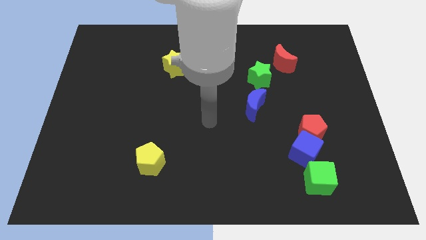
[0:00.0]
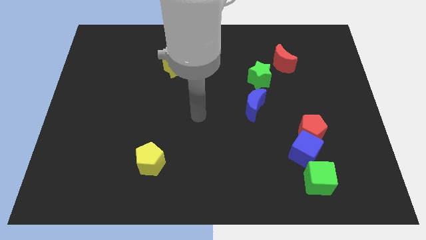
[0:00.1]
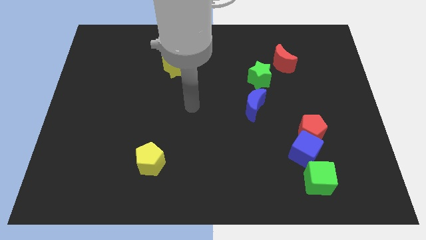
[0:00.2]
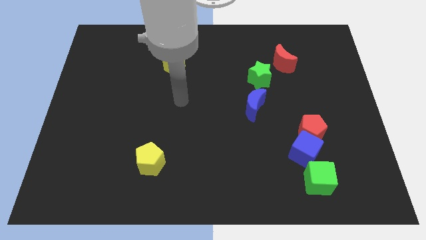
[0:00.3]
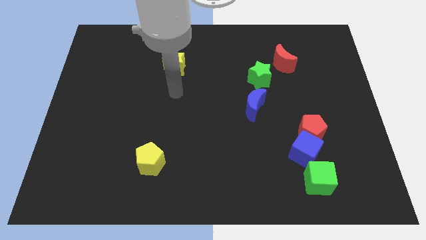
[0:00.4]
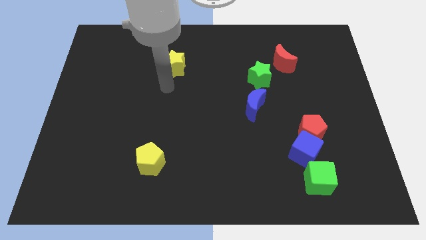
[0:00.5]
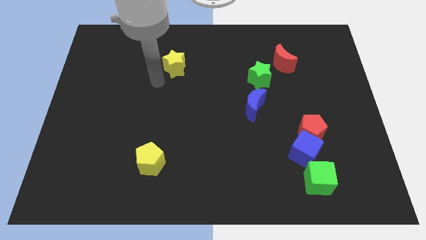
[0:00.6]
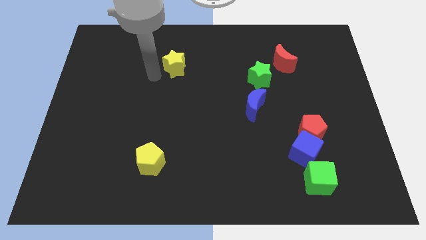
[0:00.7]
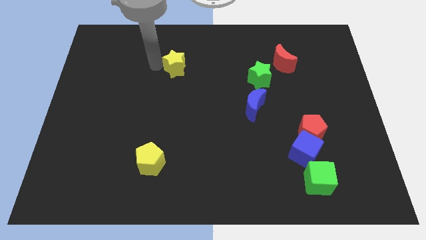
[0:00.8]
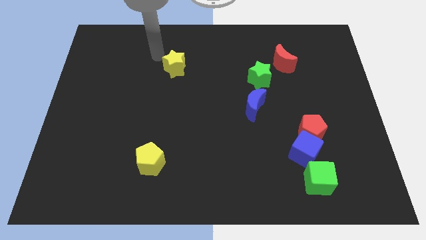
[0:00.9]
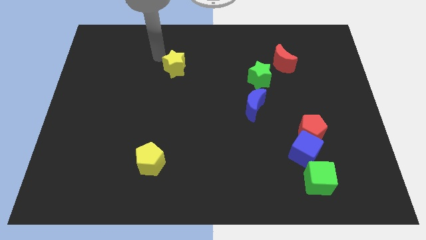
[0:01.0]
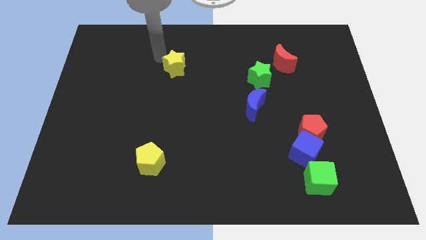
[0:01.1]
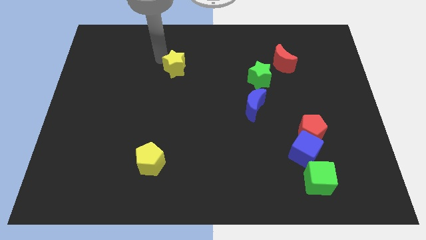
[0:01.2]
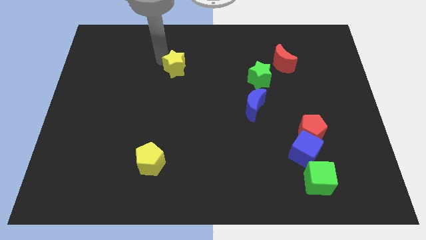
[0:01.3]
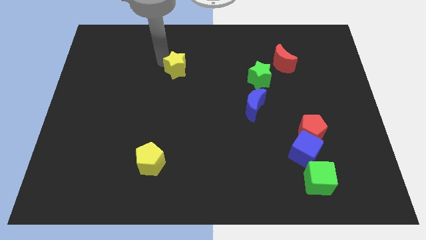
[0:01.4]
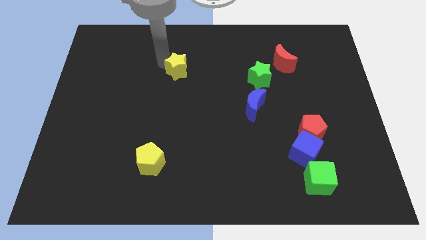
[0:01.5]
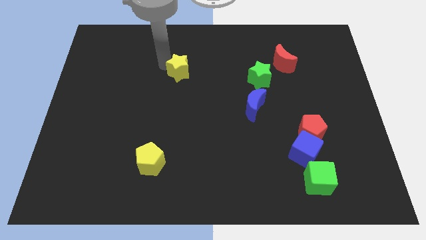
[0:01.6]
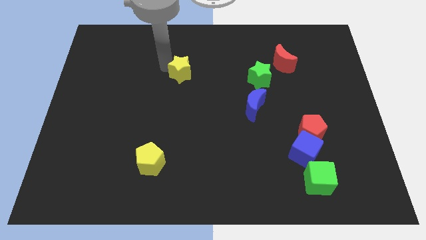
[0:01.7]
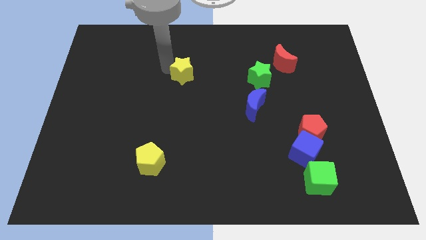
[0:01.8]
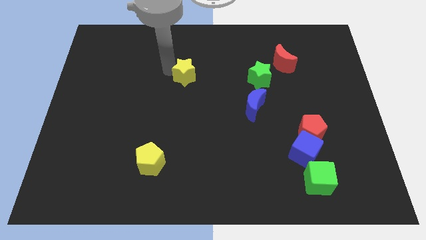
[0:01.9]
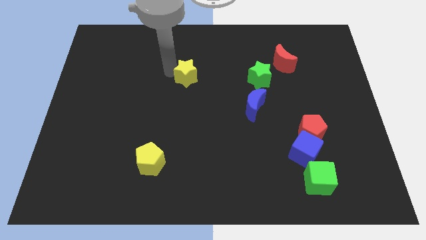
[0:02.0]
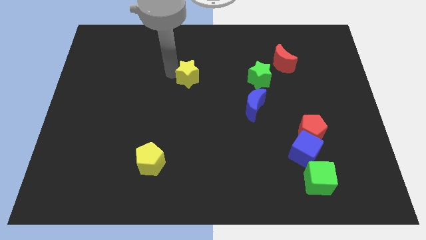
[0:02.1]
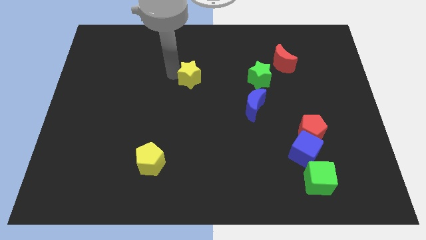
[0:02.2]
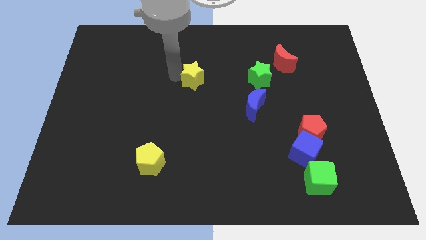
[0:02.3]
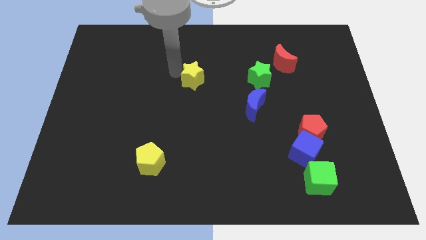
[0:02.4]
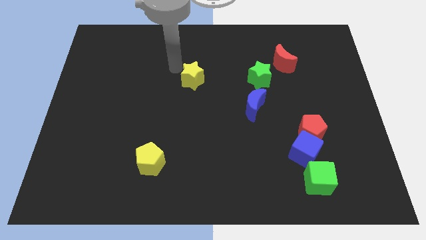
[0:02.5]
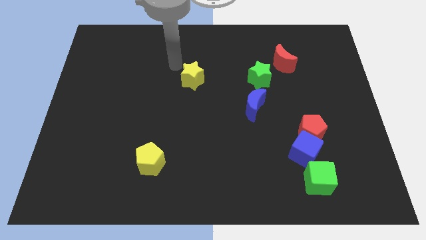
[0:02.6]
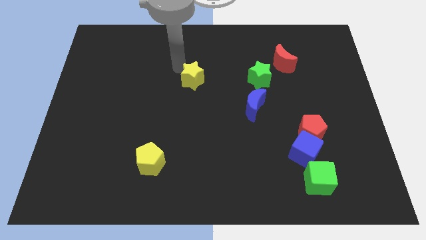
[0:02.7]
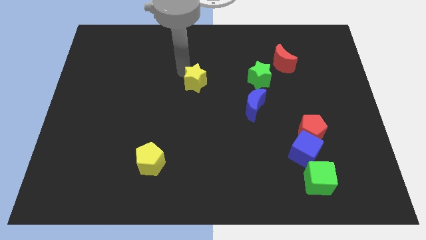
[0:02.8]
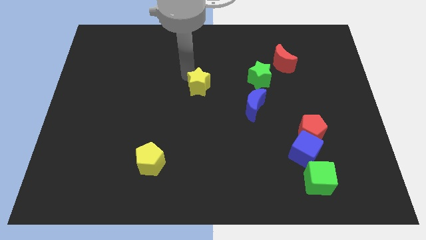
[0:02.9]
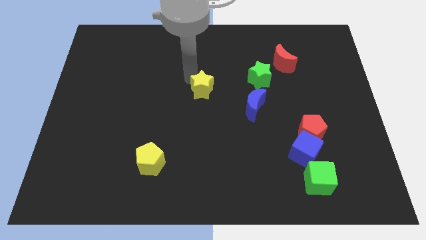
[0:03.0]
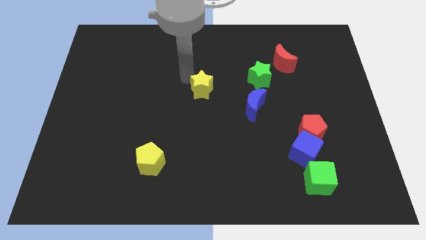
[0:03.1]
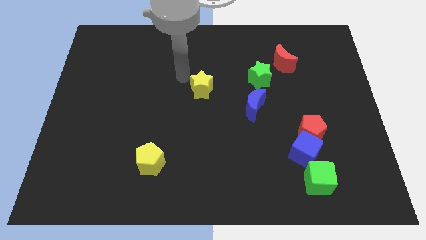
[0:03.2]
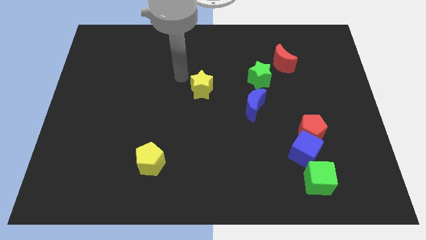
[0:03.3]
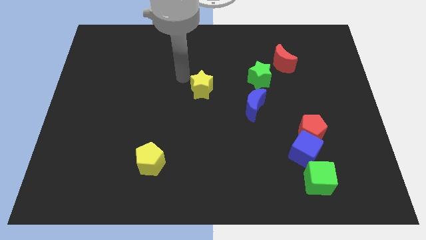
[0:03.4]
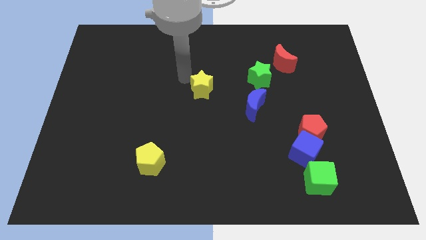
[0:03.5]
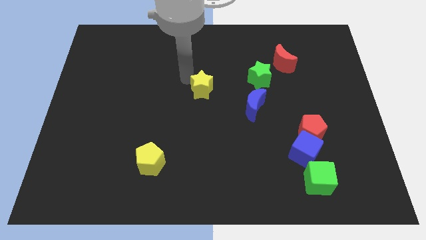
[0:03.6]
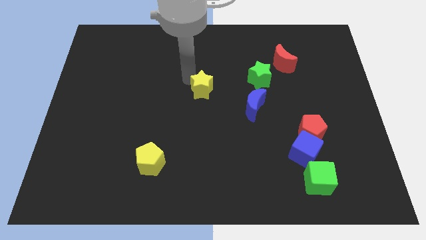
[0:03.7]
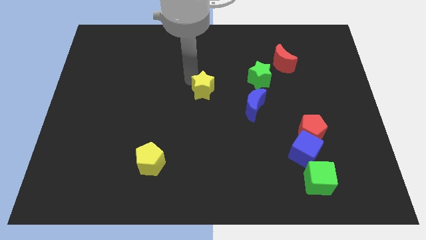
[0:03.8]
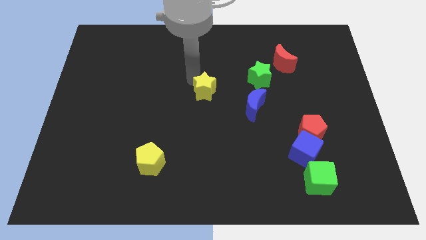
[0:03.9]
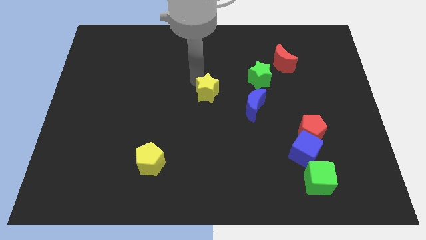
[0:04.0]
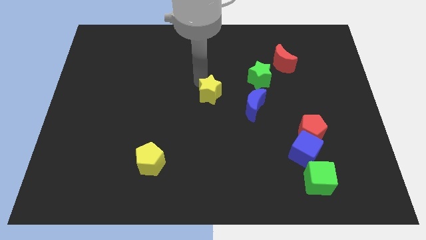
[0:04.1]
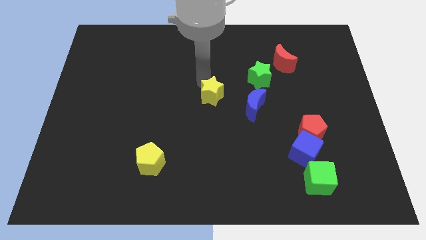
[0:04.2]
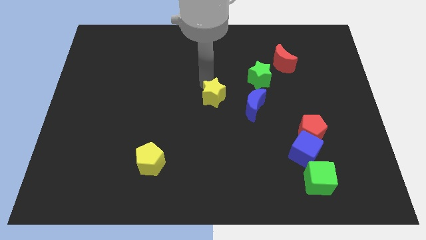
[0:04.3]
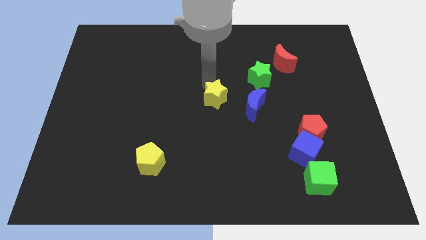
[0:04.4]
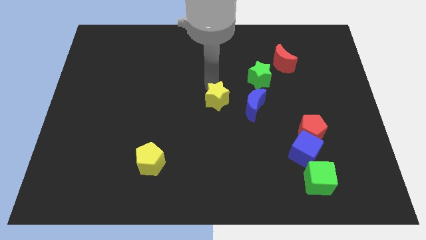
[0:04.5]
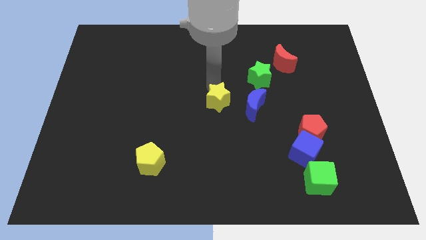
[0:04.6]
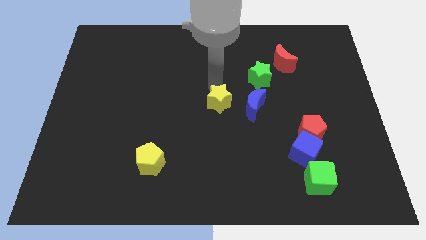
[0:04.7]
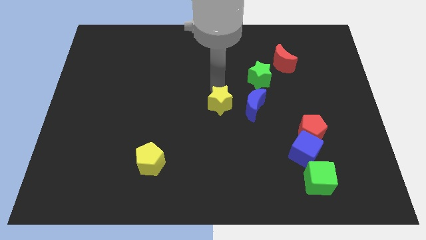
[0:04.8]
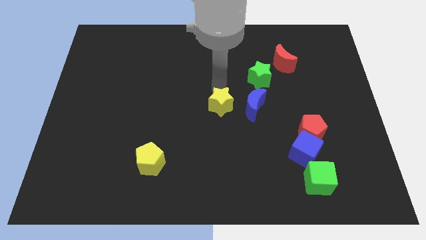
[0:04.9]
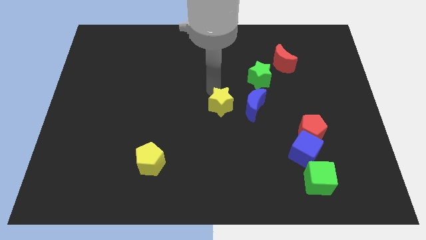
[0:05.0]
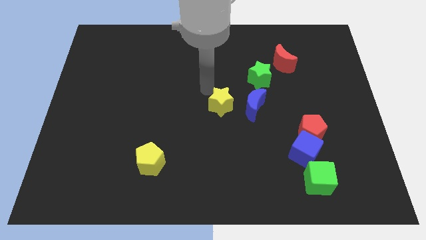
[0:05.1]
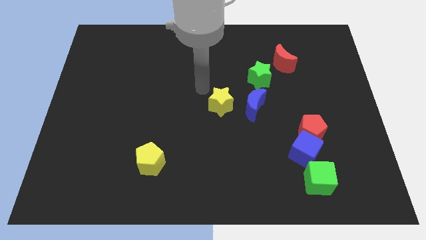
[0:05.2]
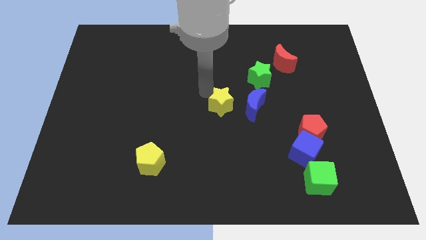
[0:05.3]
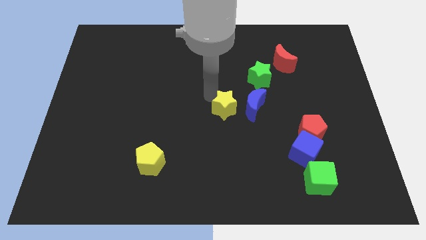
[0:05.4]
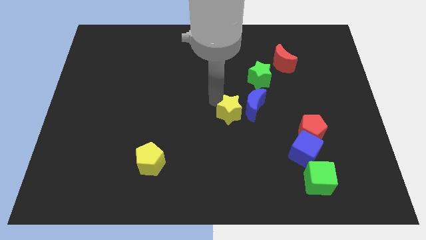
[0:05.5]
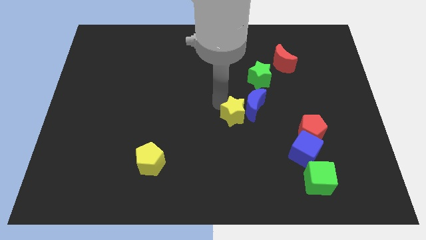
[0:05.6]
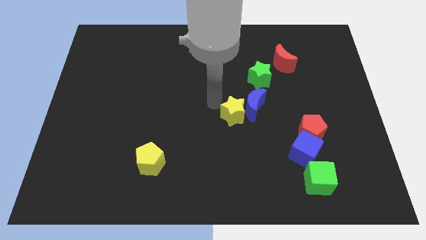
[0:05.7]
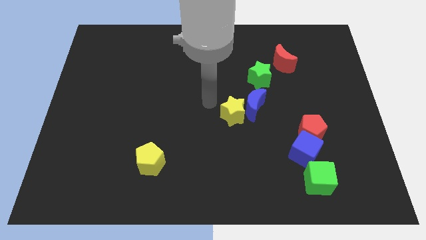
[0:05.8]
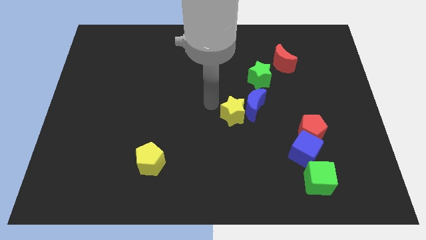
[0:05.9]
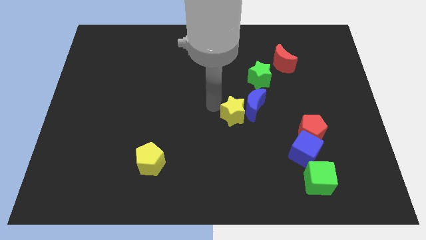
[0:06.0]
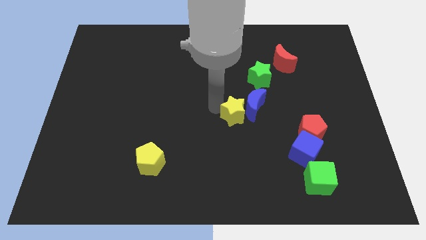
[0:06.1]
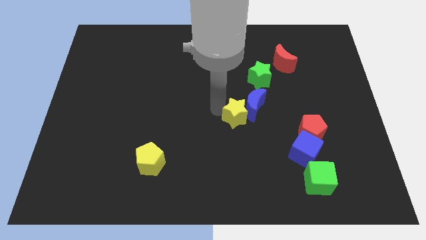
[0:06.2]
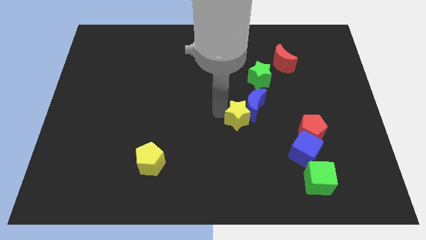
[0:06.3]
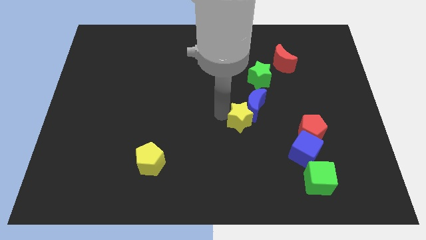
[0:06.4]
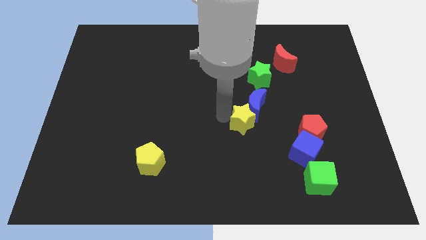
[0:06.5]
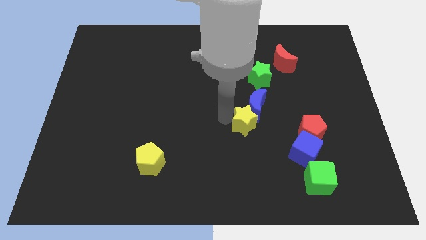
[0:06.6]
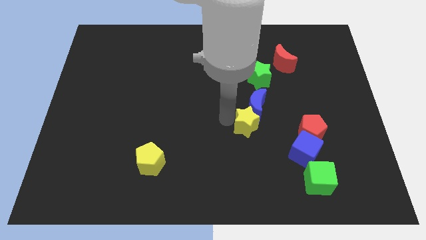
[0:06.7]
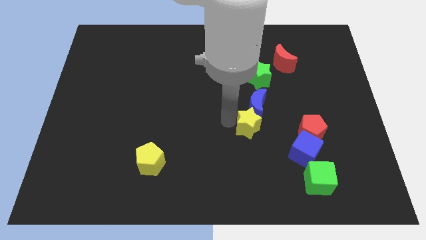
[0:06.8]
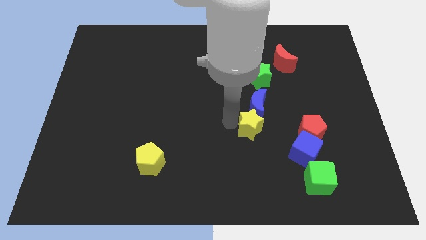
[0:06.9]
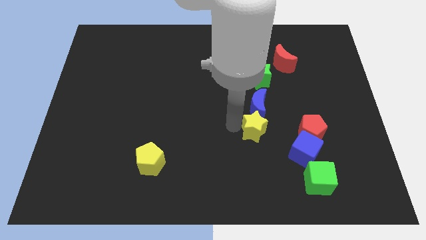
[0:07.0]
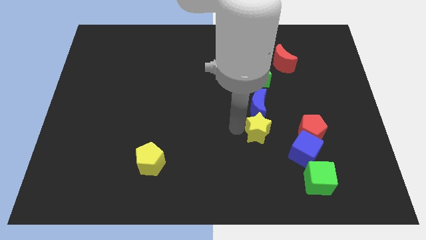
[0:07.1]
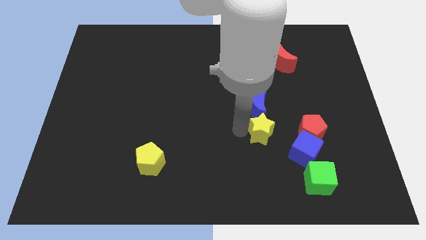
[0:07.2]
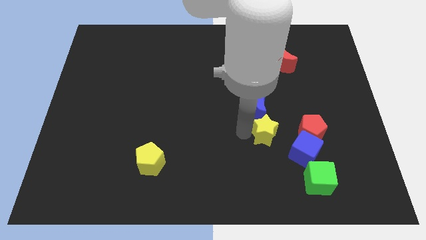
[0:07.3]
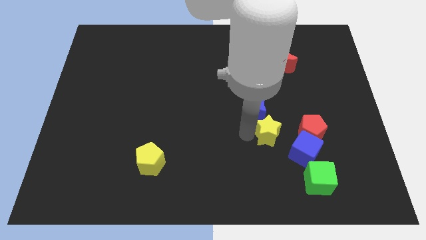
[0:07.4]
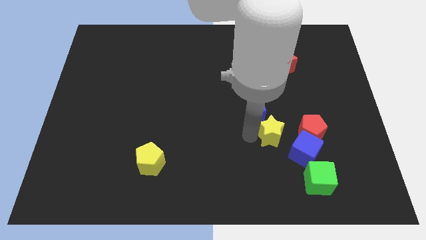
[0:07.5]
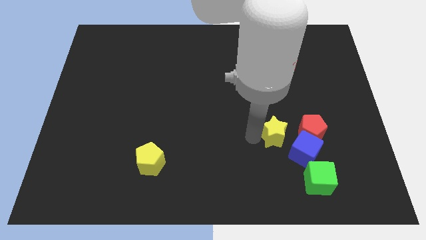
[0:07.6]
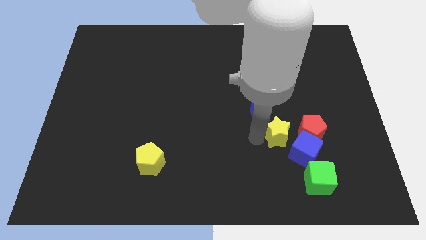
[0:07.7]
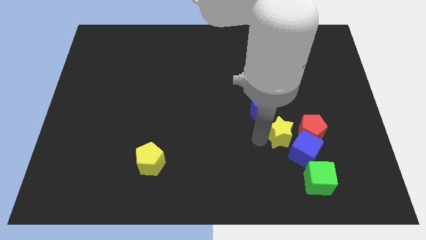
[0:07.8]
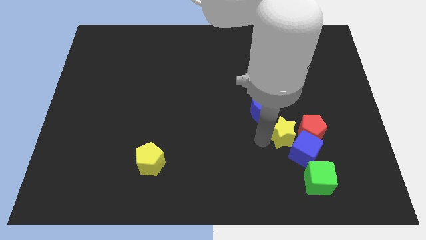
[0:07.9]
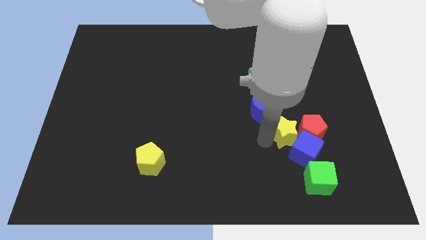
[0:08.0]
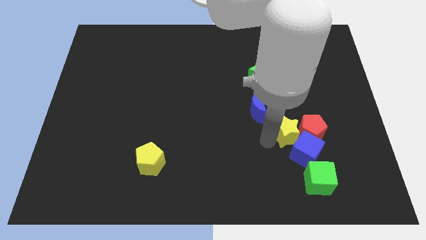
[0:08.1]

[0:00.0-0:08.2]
slide the yellow star to the red pentagon
